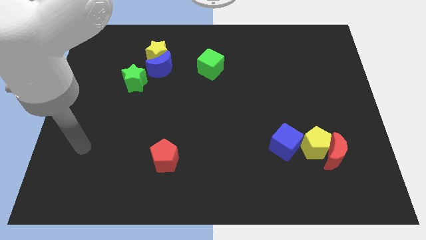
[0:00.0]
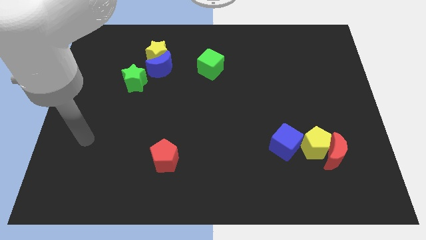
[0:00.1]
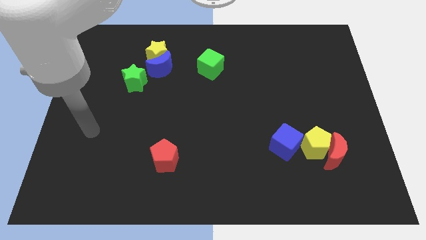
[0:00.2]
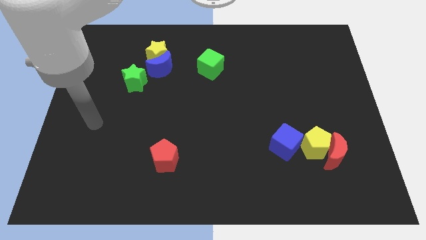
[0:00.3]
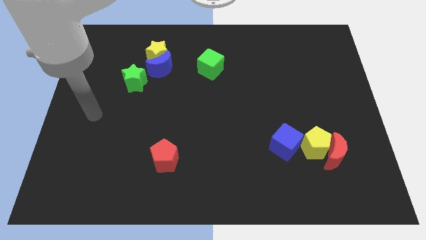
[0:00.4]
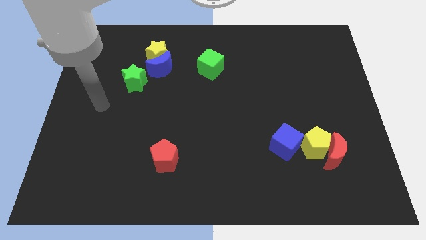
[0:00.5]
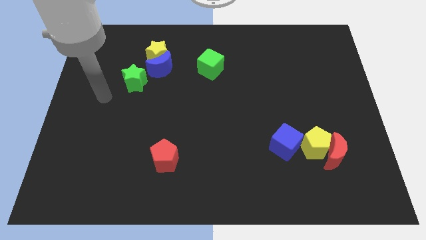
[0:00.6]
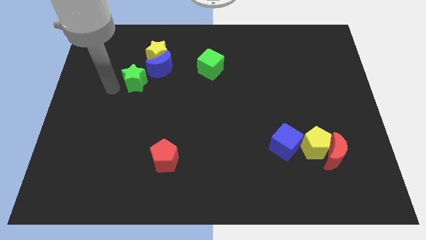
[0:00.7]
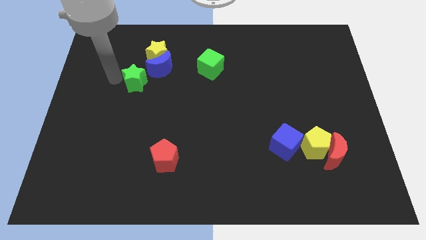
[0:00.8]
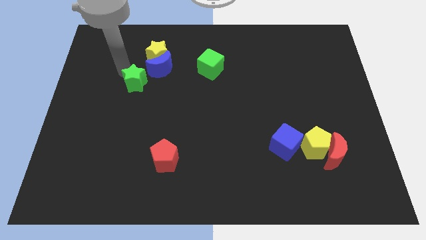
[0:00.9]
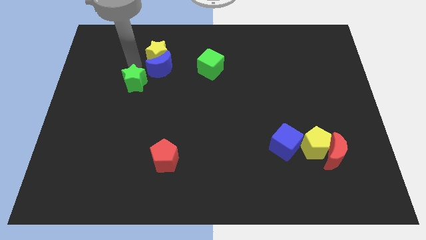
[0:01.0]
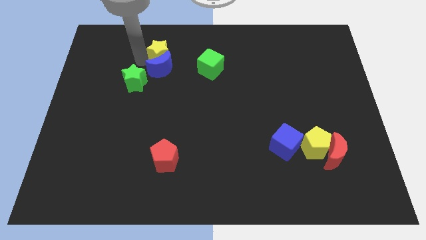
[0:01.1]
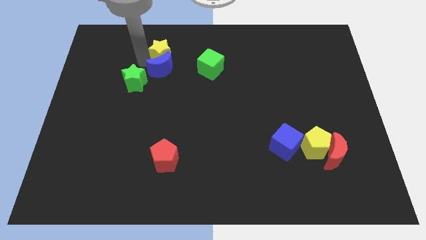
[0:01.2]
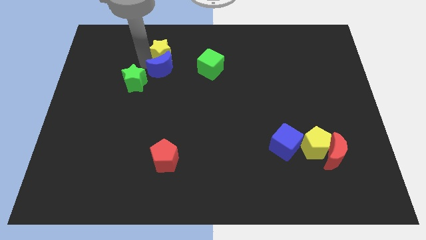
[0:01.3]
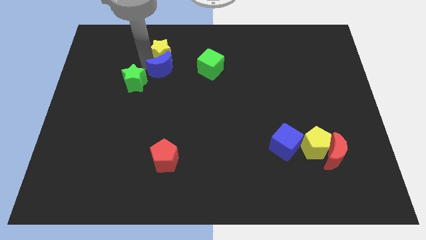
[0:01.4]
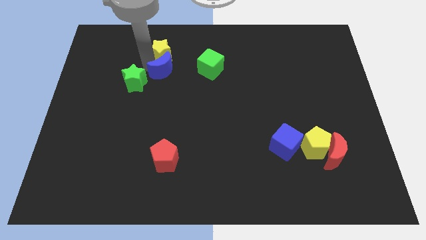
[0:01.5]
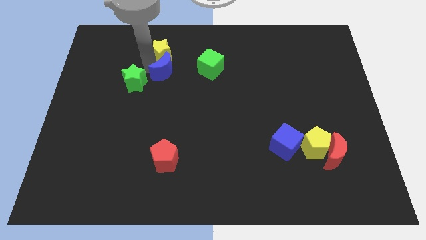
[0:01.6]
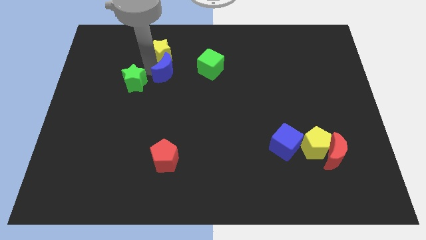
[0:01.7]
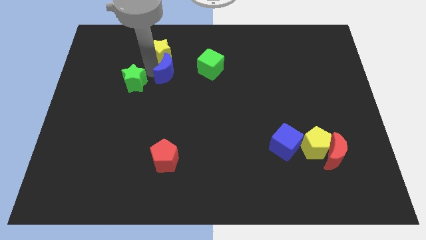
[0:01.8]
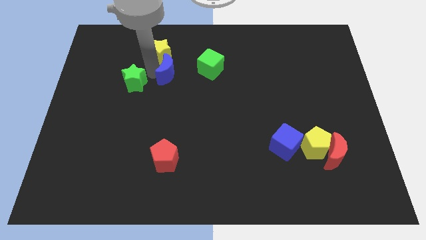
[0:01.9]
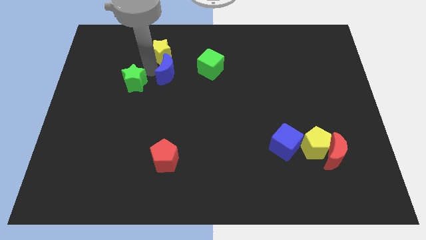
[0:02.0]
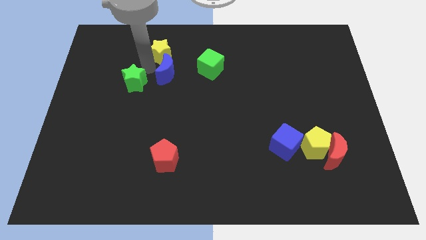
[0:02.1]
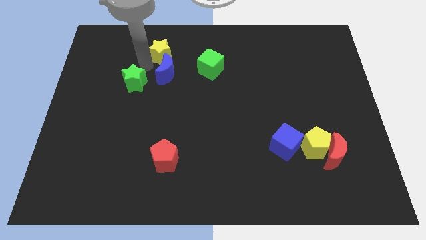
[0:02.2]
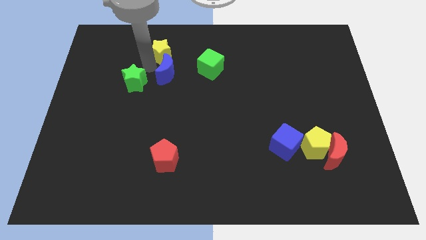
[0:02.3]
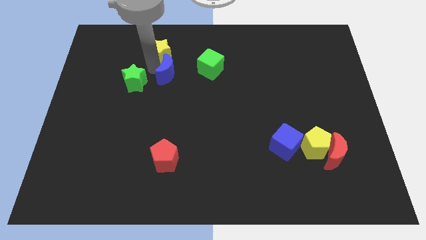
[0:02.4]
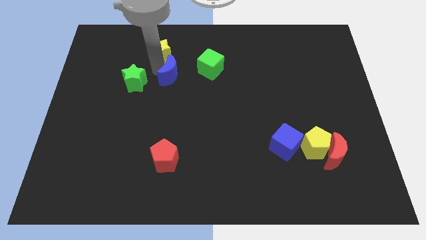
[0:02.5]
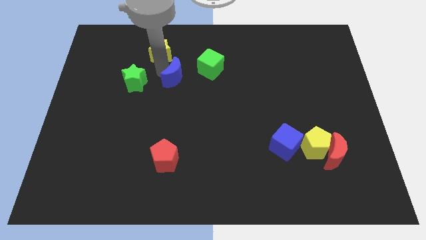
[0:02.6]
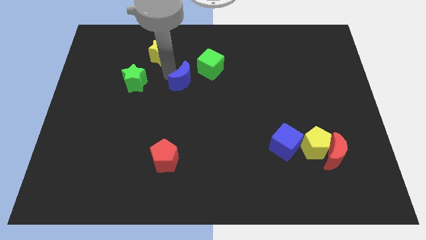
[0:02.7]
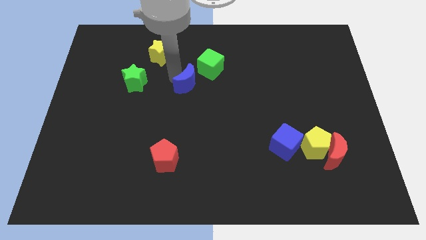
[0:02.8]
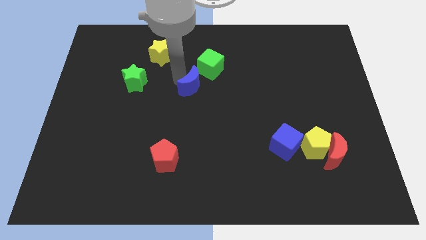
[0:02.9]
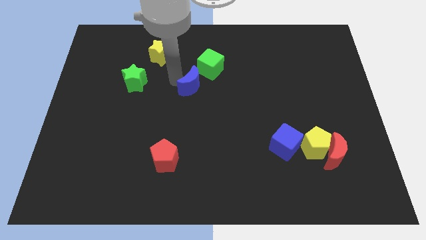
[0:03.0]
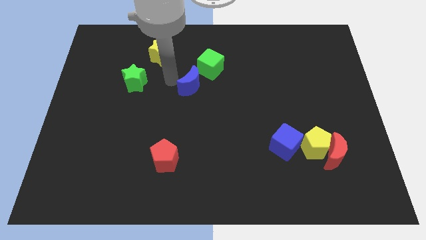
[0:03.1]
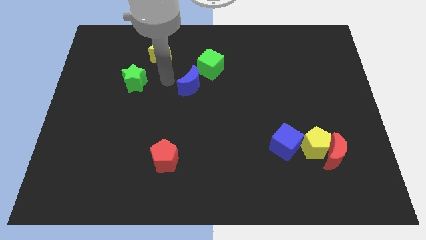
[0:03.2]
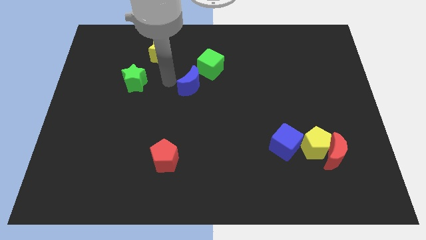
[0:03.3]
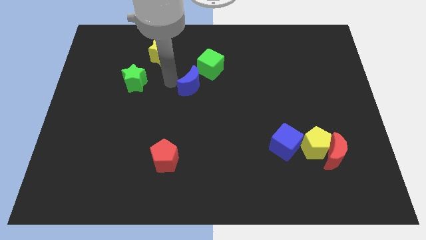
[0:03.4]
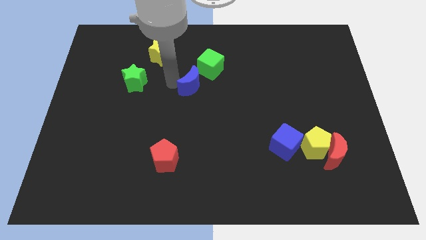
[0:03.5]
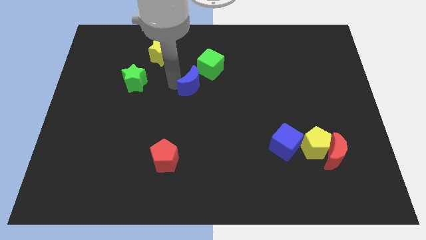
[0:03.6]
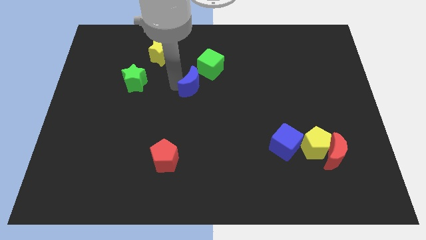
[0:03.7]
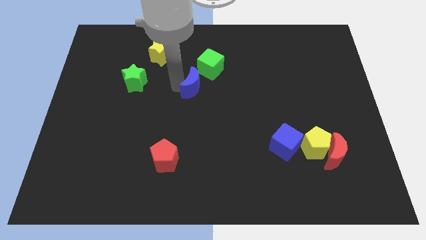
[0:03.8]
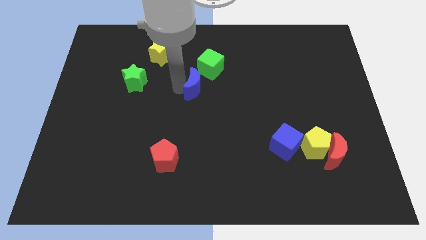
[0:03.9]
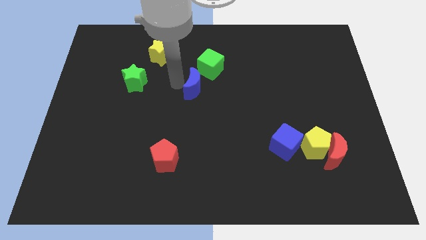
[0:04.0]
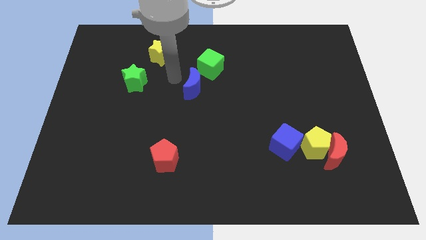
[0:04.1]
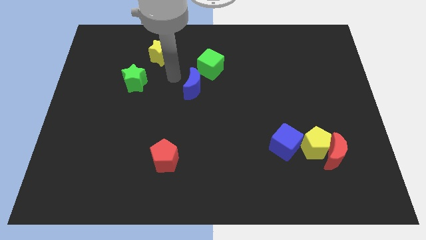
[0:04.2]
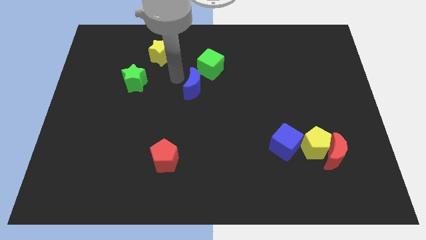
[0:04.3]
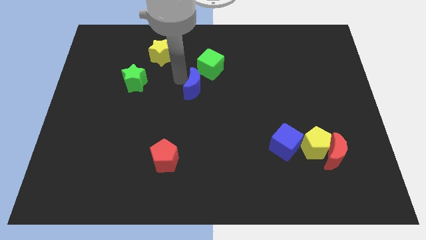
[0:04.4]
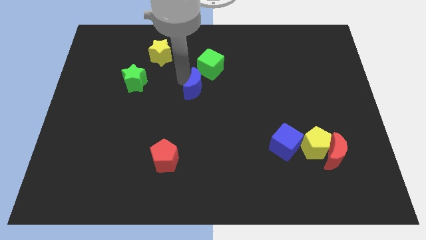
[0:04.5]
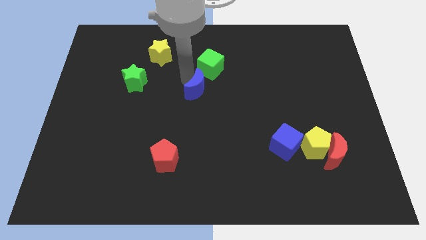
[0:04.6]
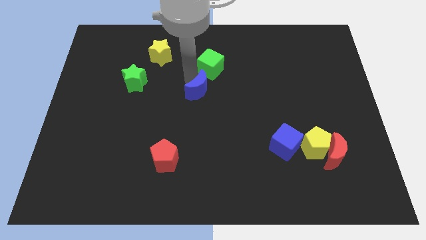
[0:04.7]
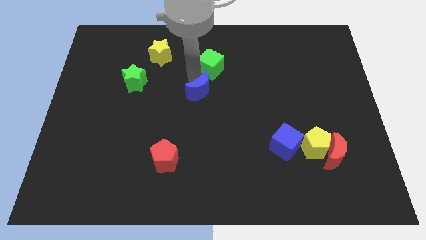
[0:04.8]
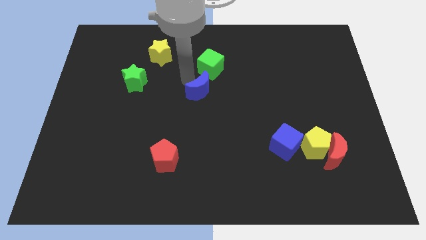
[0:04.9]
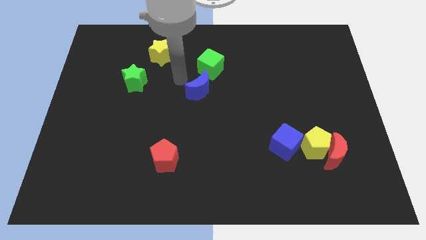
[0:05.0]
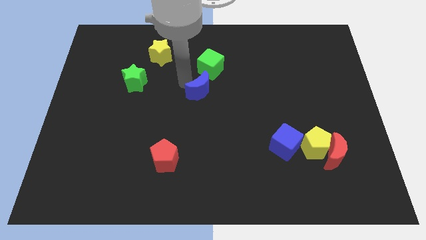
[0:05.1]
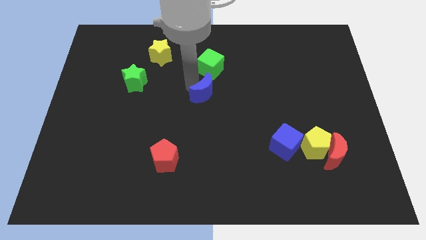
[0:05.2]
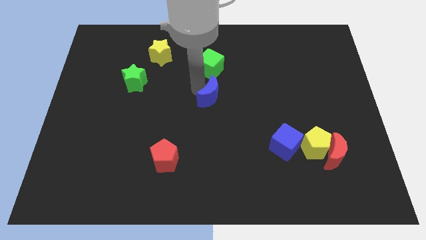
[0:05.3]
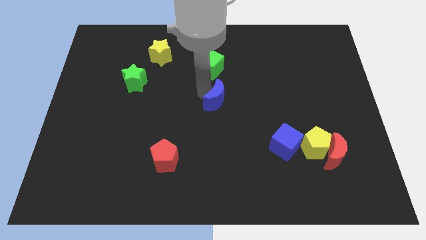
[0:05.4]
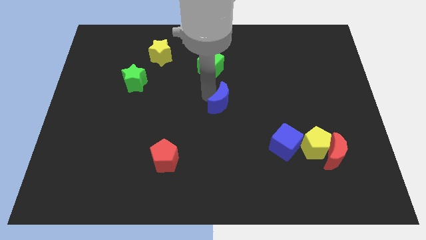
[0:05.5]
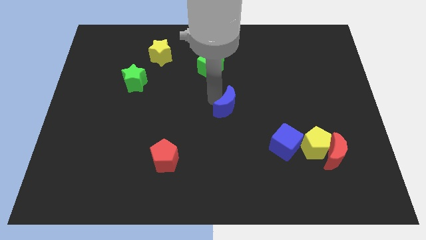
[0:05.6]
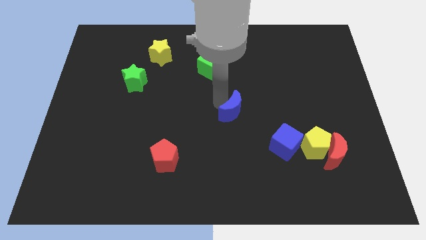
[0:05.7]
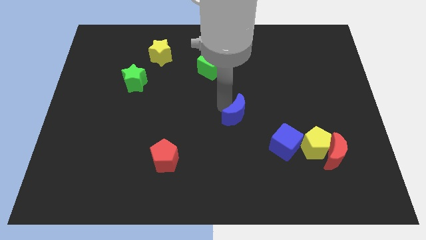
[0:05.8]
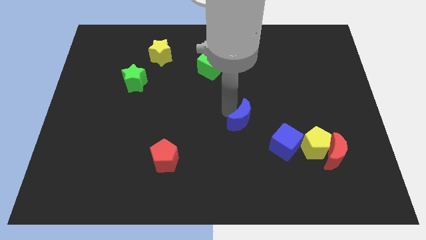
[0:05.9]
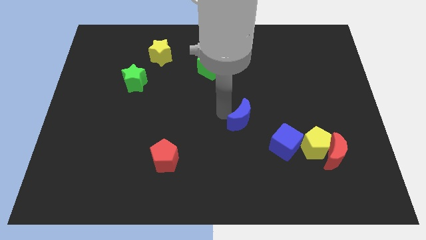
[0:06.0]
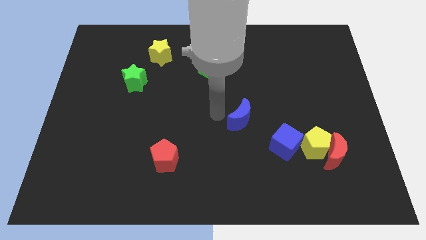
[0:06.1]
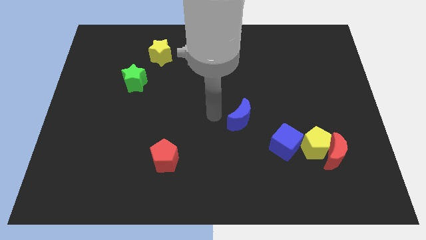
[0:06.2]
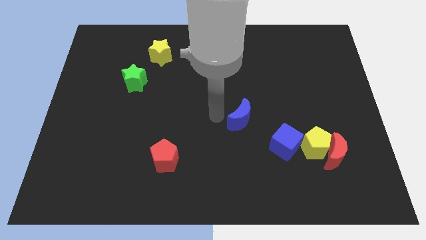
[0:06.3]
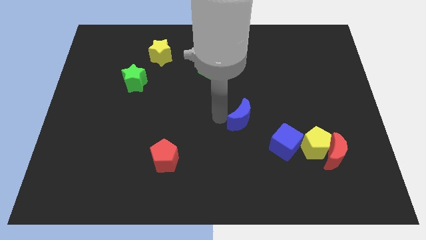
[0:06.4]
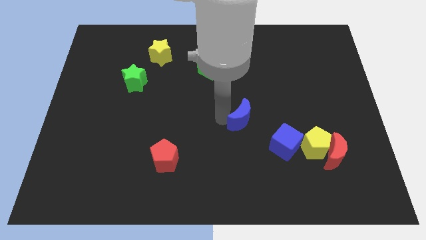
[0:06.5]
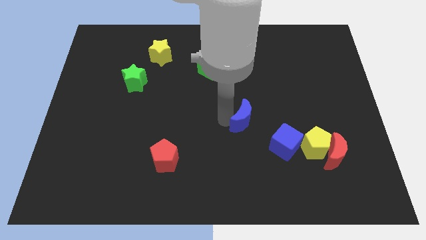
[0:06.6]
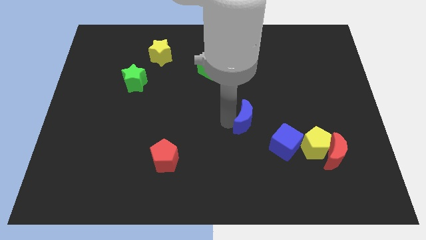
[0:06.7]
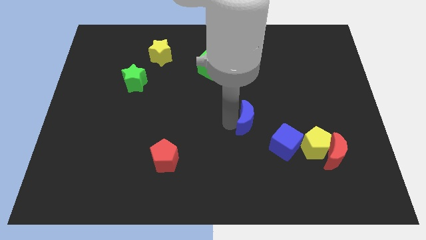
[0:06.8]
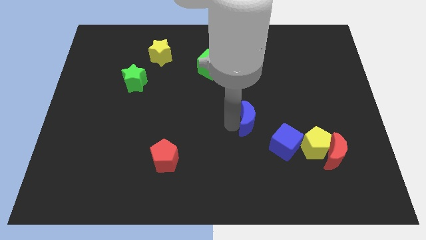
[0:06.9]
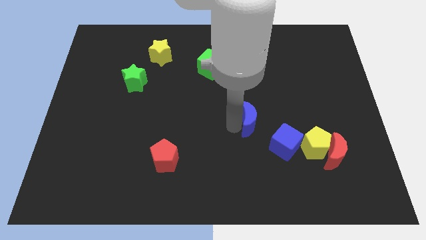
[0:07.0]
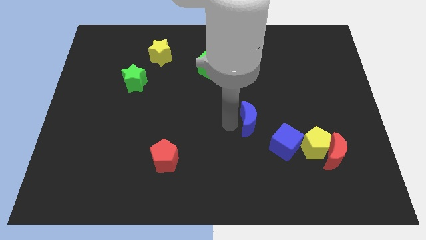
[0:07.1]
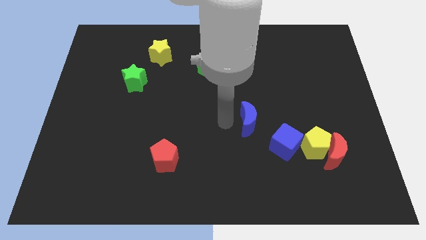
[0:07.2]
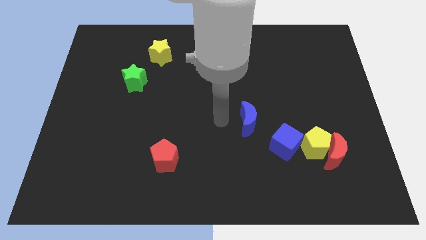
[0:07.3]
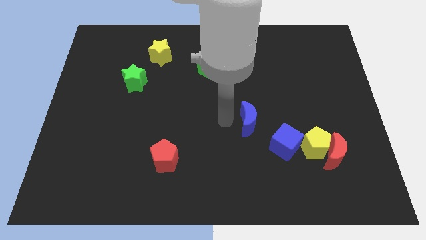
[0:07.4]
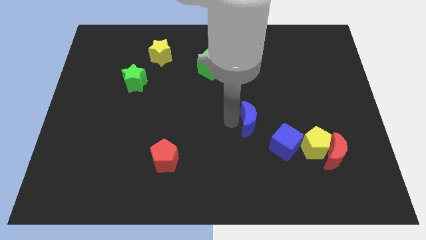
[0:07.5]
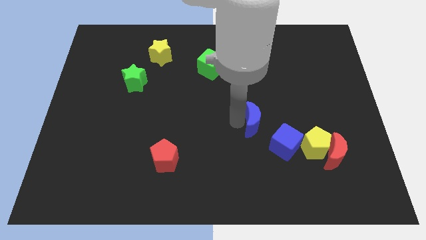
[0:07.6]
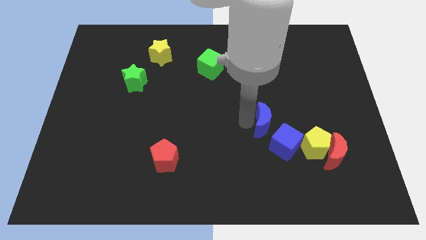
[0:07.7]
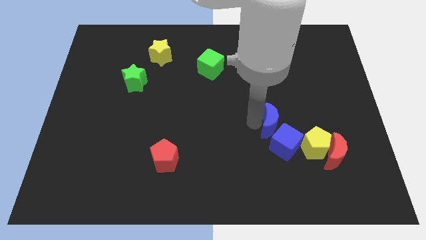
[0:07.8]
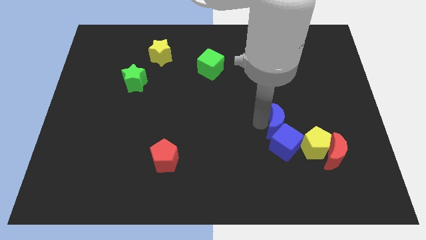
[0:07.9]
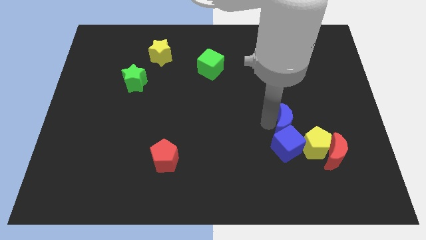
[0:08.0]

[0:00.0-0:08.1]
move the blue moon diagonally up and to the left of the red moon

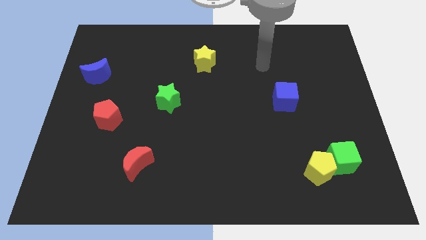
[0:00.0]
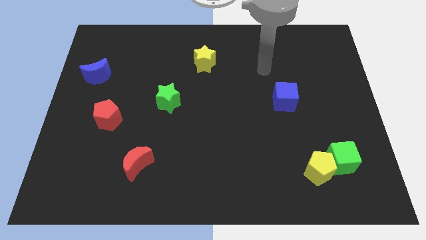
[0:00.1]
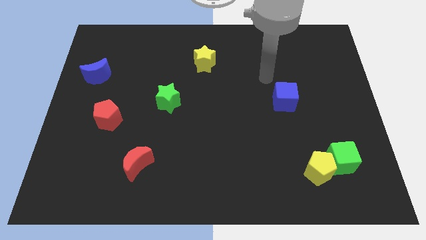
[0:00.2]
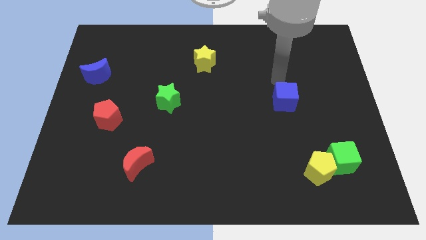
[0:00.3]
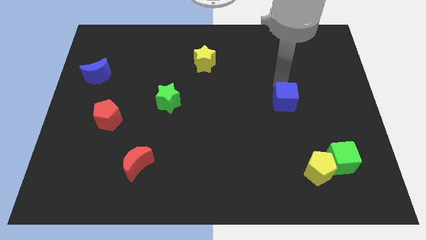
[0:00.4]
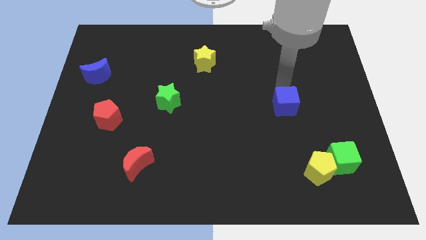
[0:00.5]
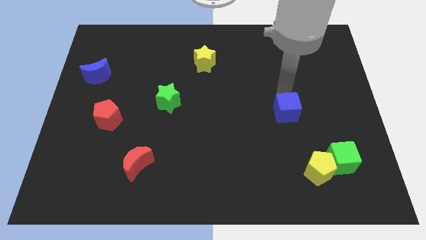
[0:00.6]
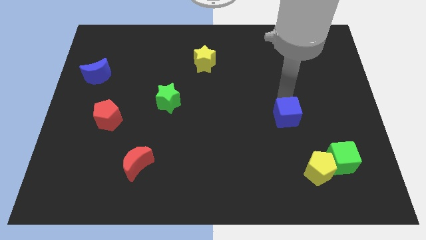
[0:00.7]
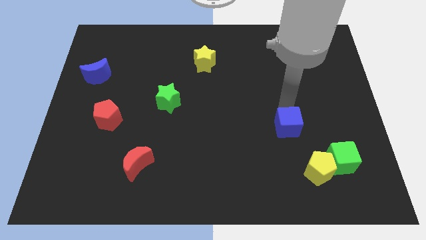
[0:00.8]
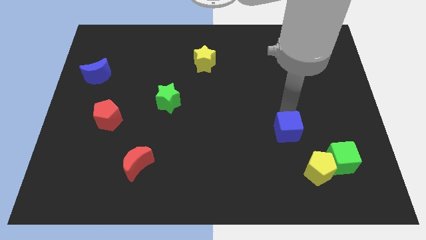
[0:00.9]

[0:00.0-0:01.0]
slide the blue cube to the top left side of the yellow pentagon
